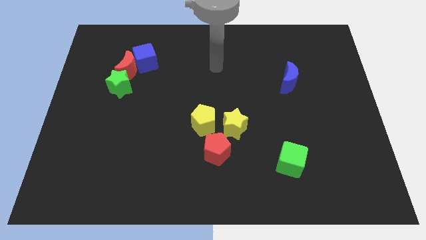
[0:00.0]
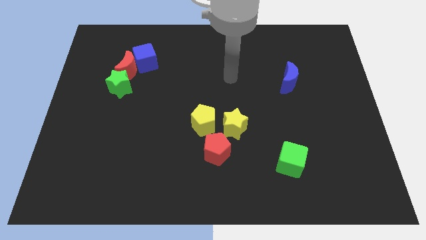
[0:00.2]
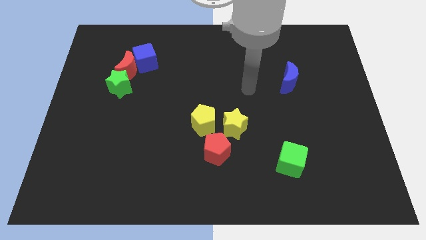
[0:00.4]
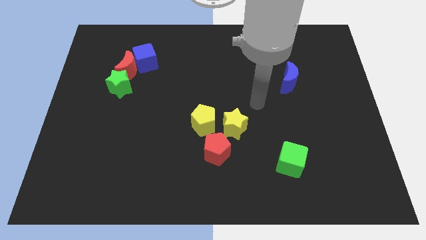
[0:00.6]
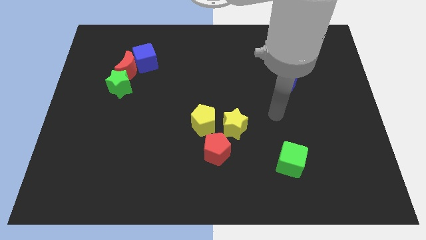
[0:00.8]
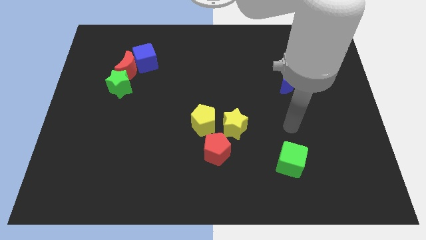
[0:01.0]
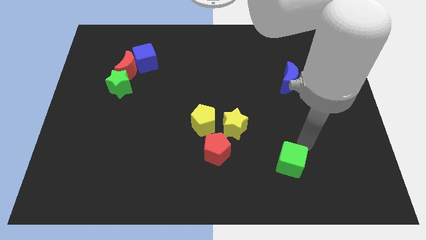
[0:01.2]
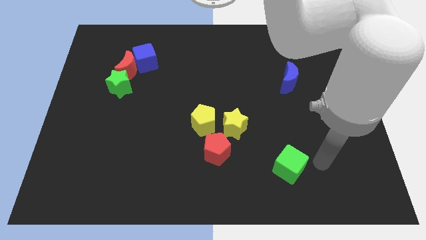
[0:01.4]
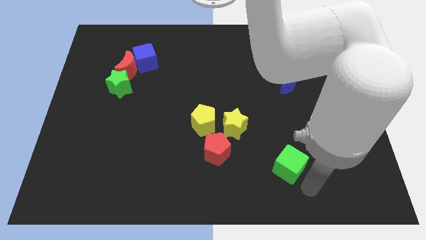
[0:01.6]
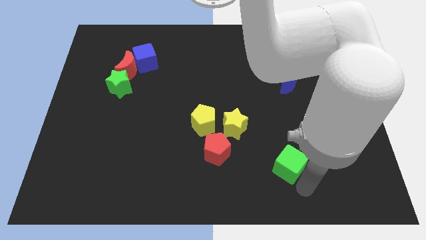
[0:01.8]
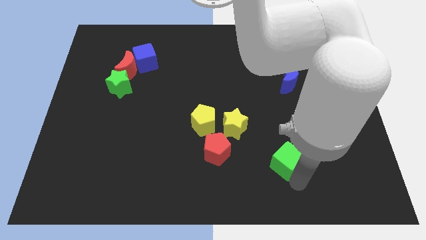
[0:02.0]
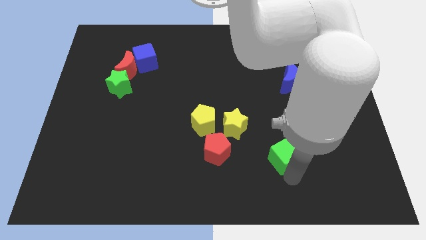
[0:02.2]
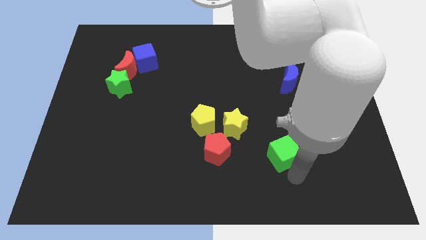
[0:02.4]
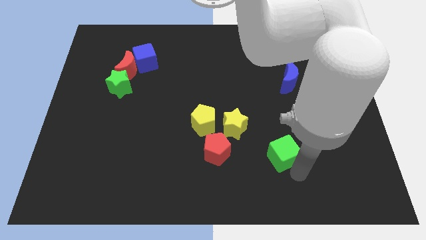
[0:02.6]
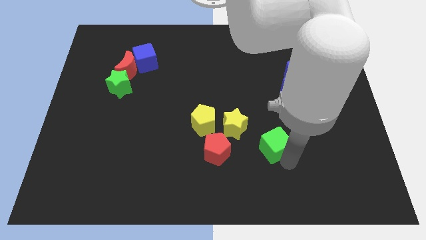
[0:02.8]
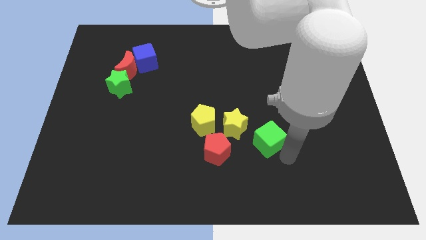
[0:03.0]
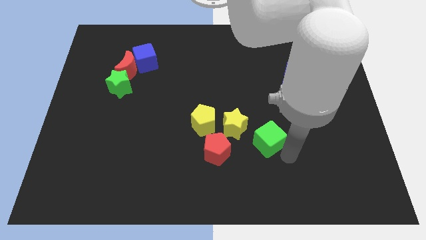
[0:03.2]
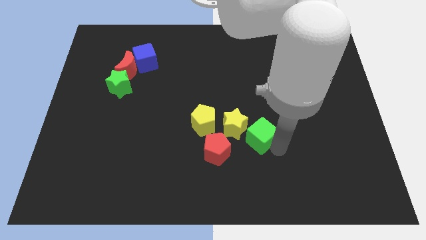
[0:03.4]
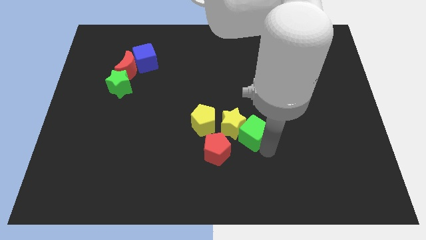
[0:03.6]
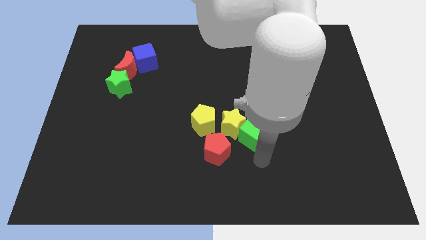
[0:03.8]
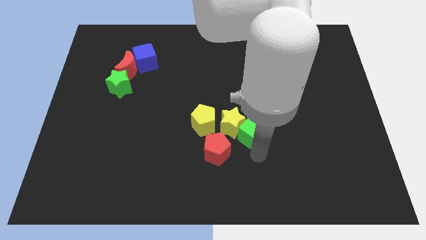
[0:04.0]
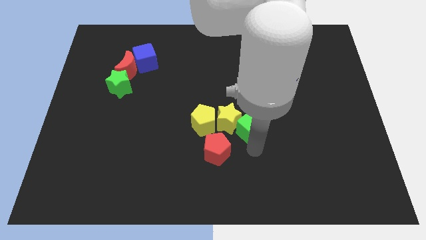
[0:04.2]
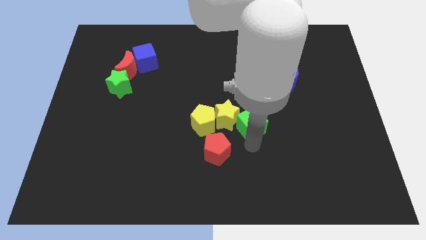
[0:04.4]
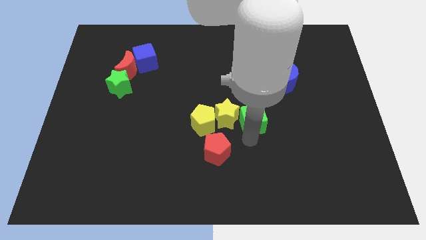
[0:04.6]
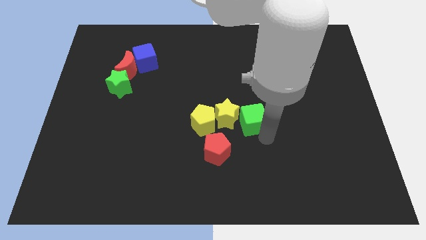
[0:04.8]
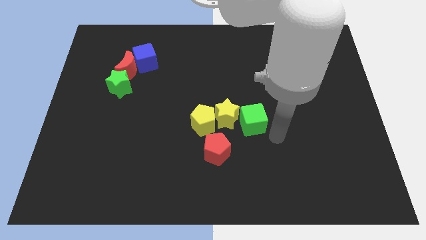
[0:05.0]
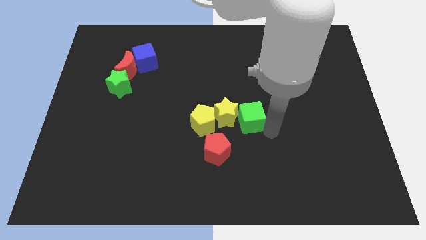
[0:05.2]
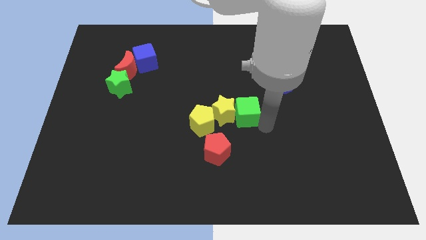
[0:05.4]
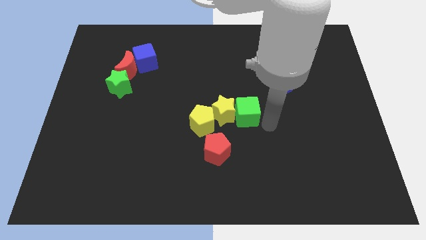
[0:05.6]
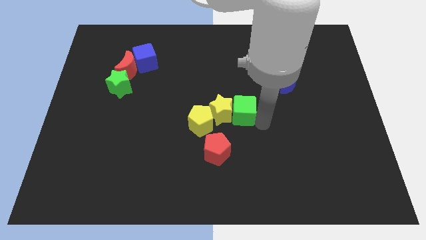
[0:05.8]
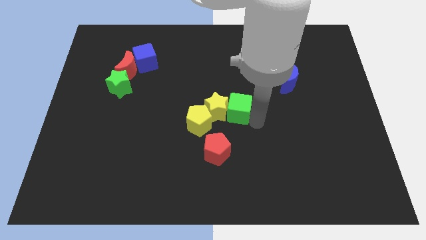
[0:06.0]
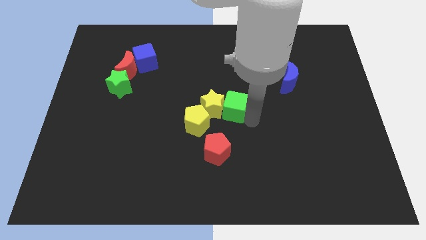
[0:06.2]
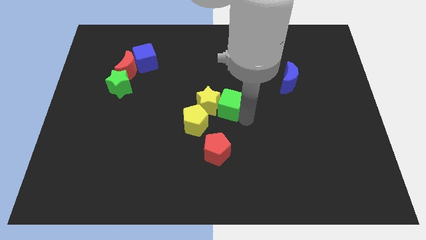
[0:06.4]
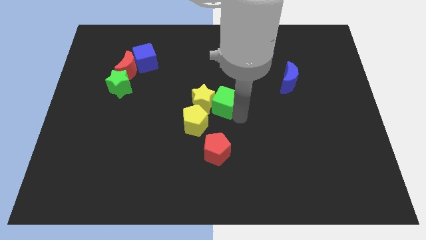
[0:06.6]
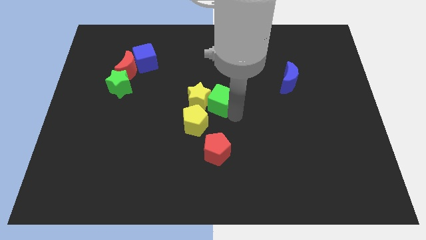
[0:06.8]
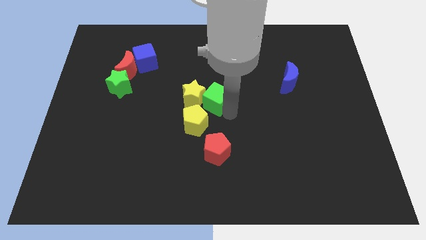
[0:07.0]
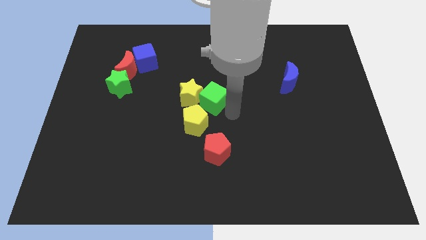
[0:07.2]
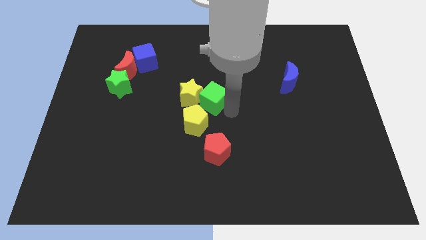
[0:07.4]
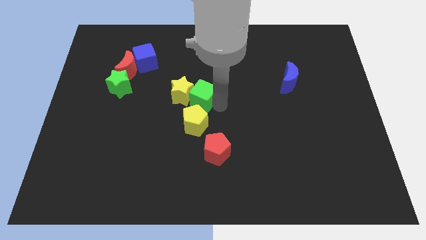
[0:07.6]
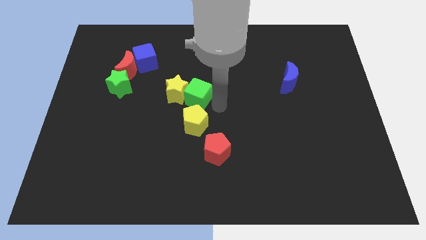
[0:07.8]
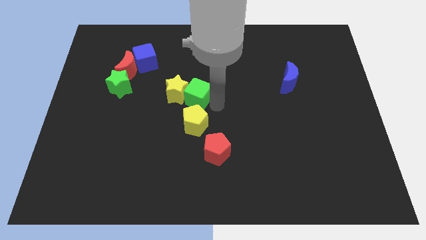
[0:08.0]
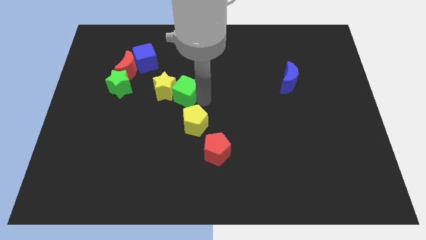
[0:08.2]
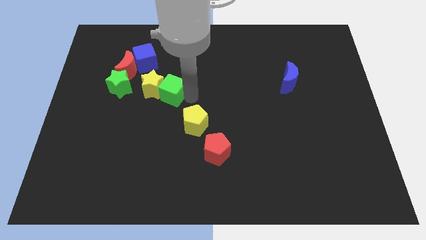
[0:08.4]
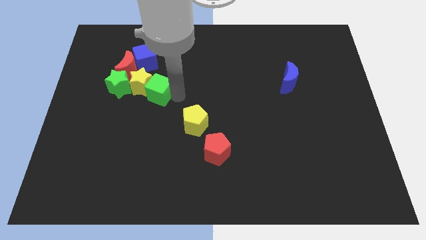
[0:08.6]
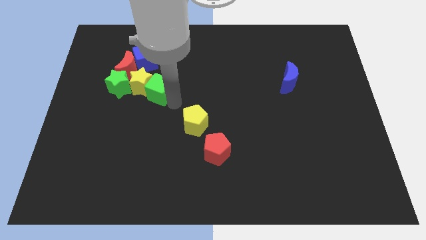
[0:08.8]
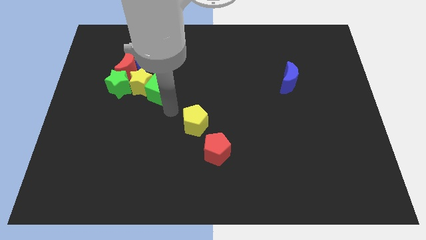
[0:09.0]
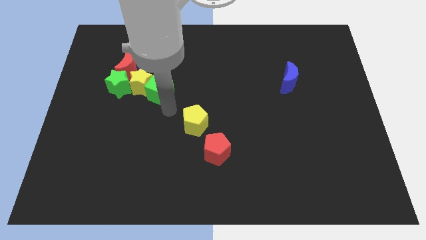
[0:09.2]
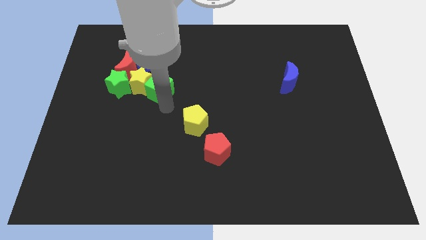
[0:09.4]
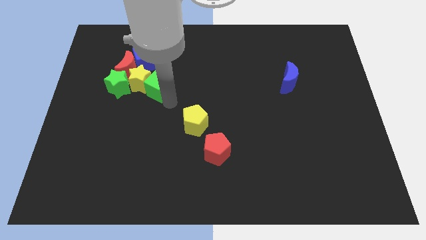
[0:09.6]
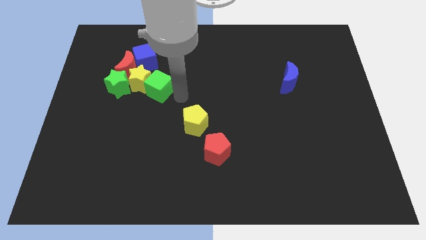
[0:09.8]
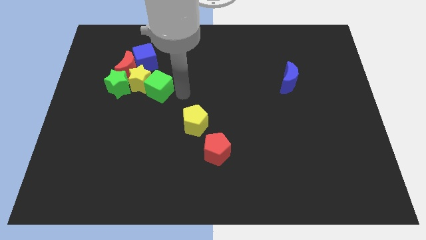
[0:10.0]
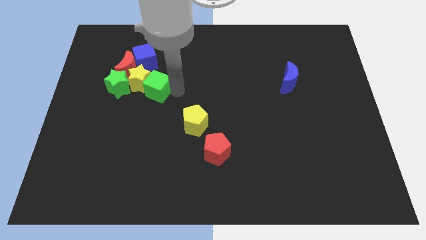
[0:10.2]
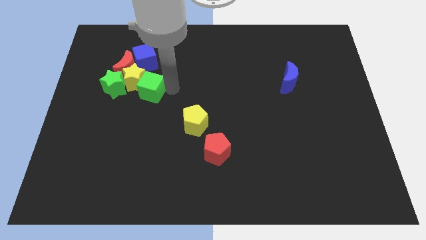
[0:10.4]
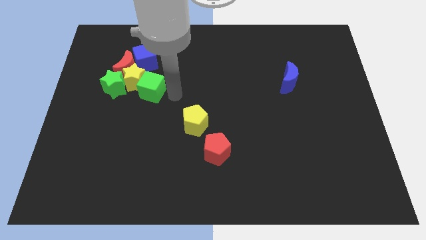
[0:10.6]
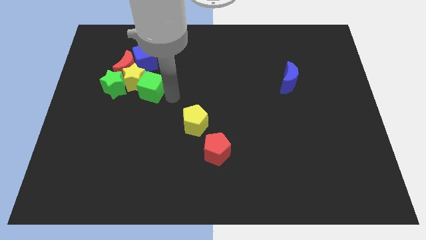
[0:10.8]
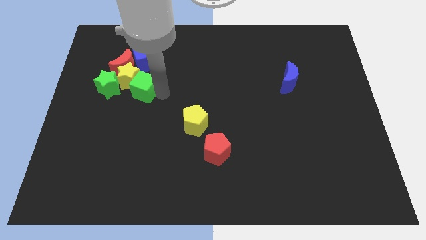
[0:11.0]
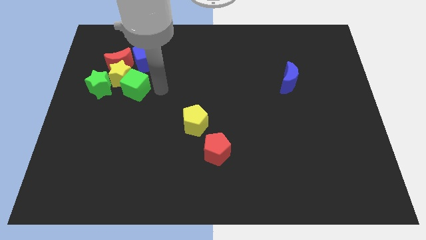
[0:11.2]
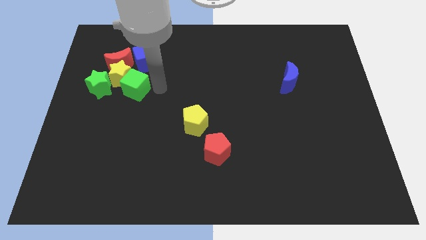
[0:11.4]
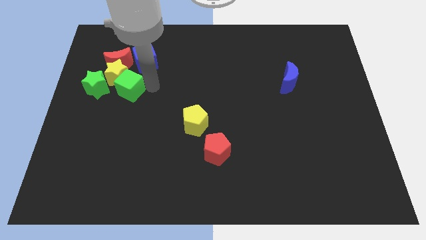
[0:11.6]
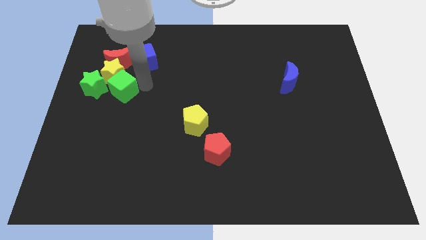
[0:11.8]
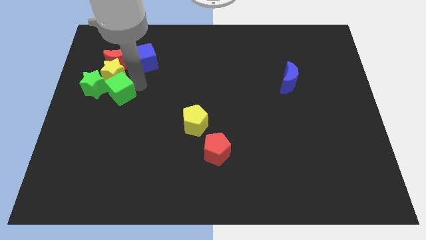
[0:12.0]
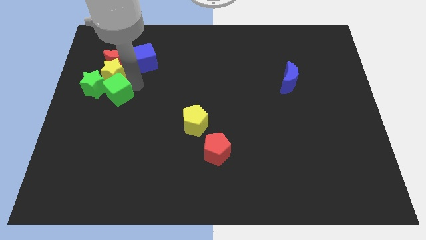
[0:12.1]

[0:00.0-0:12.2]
move the green cube close to the green star

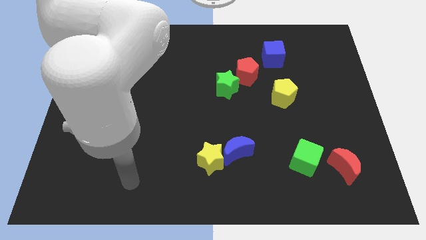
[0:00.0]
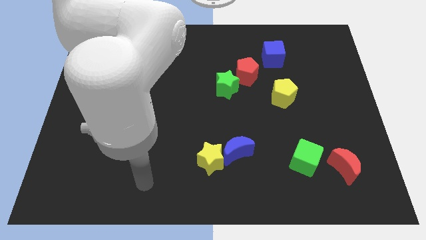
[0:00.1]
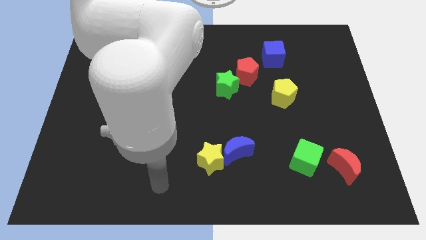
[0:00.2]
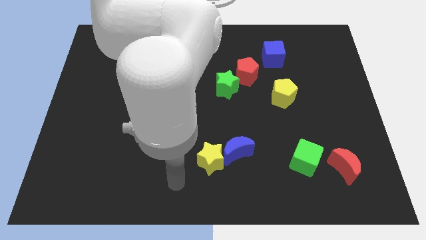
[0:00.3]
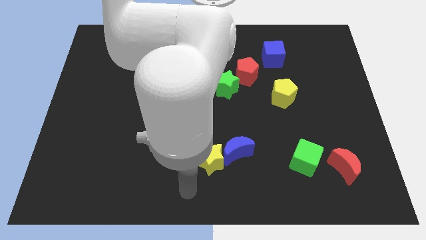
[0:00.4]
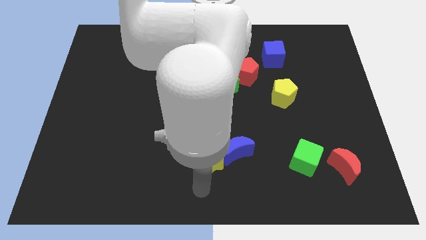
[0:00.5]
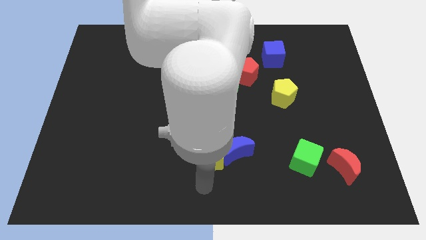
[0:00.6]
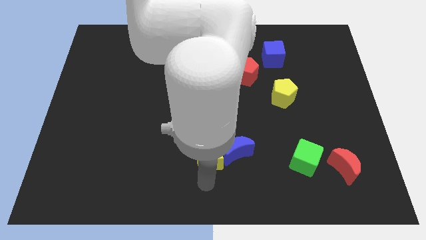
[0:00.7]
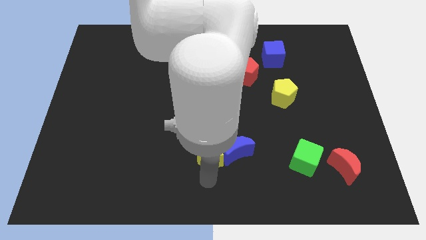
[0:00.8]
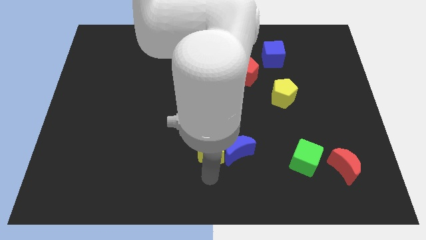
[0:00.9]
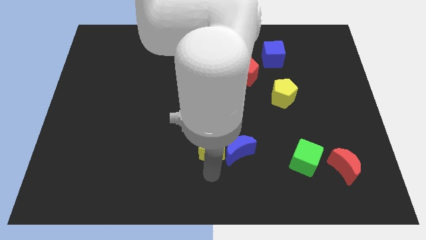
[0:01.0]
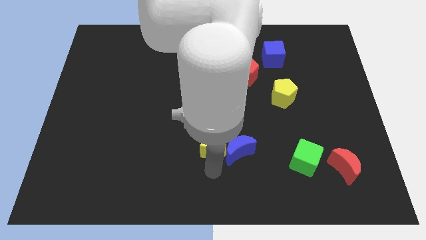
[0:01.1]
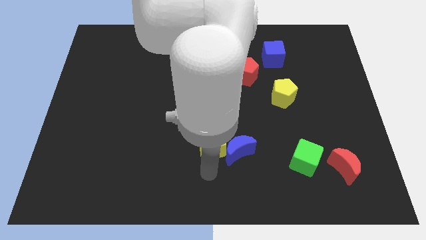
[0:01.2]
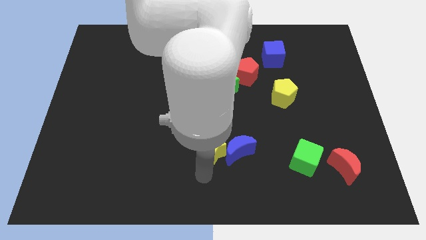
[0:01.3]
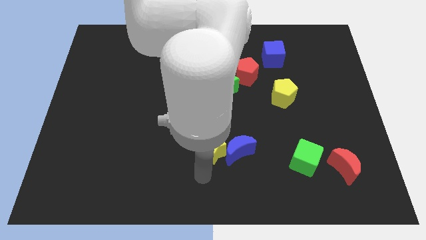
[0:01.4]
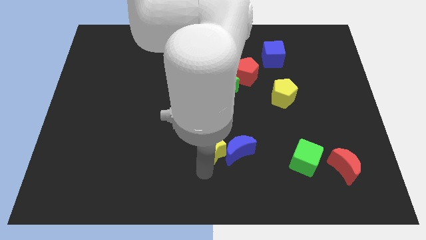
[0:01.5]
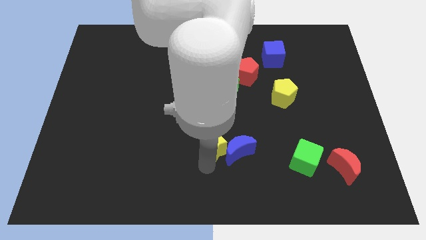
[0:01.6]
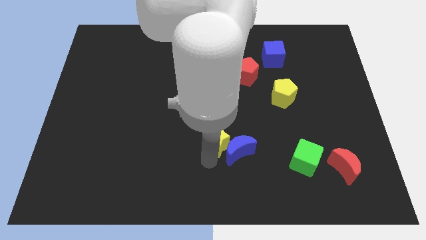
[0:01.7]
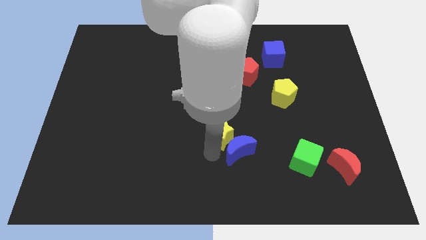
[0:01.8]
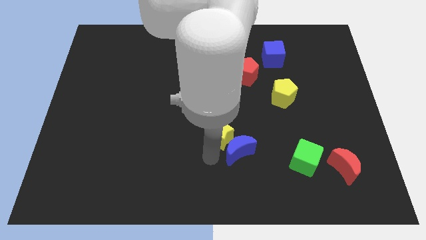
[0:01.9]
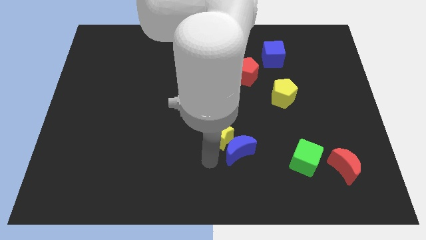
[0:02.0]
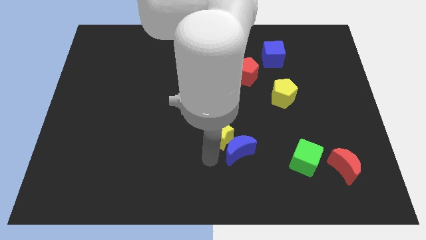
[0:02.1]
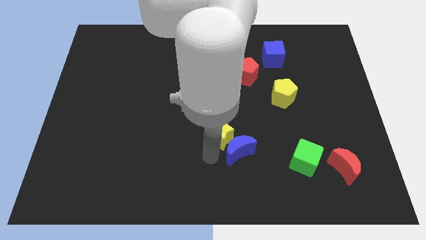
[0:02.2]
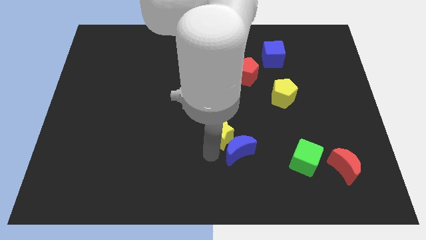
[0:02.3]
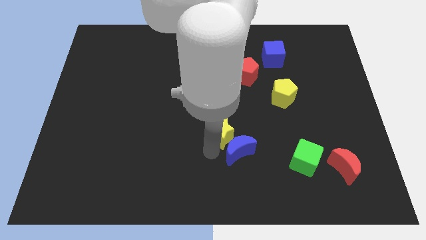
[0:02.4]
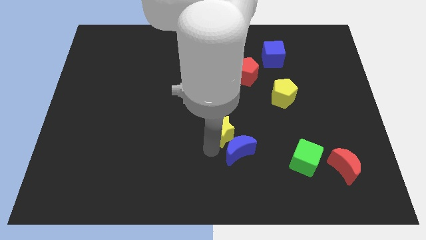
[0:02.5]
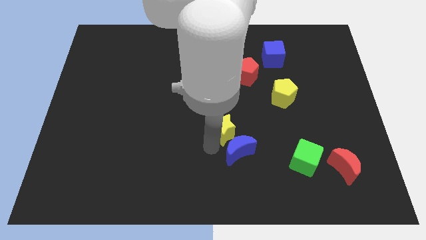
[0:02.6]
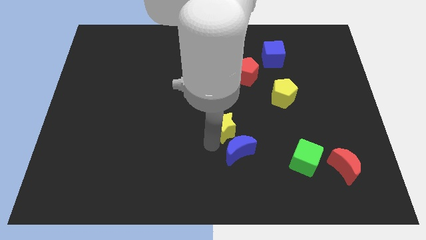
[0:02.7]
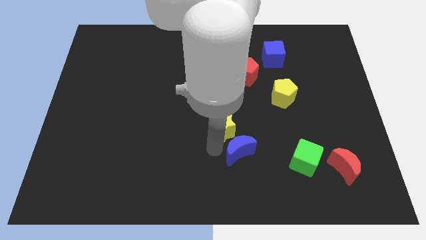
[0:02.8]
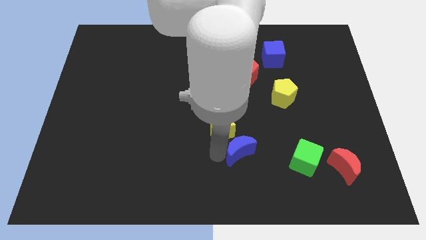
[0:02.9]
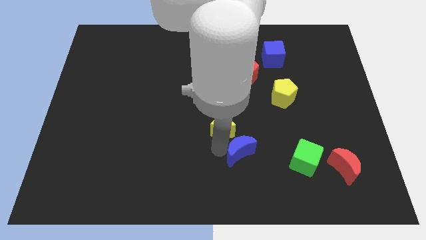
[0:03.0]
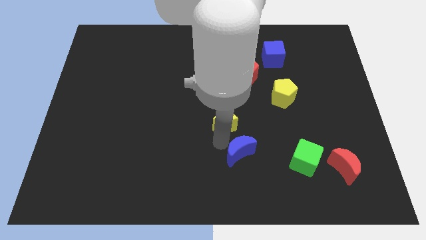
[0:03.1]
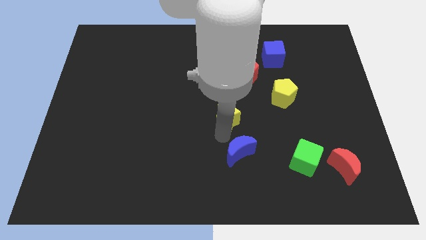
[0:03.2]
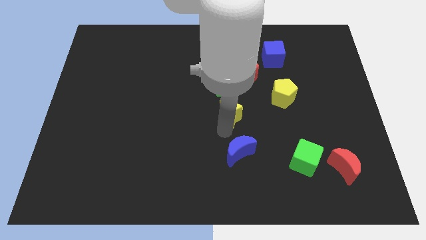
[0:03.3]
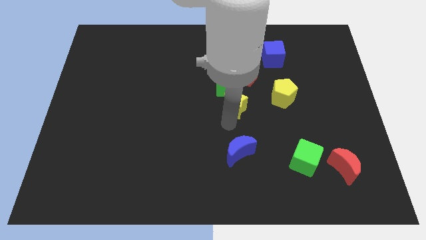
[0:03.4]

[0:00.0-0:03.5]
slide the yellow star close to the green star
